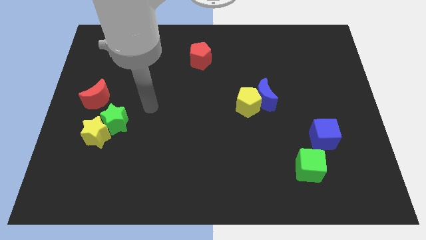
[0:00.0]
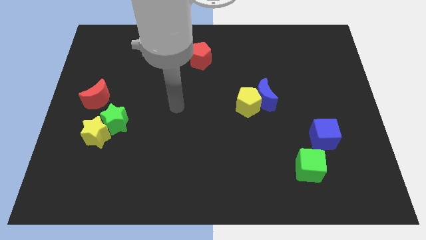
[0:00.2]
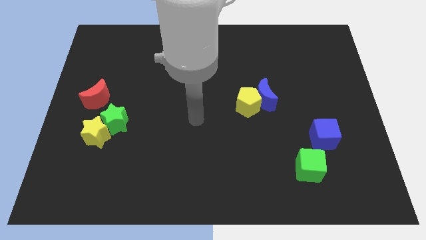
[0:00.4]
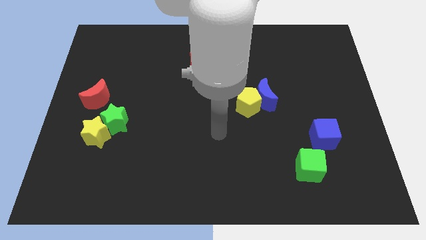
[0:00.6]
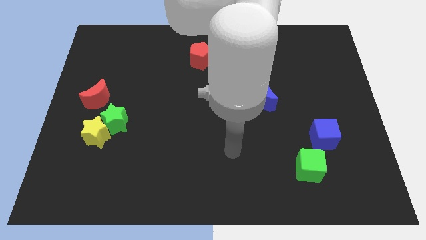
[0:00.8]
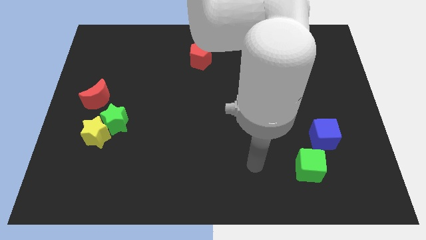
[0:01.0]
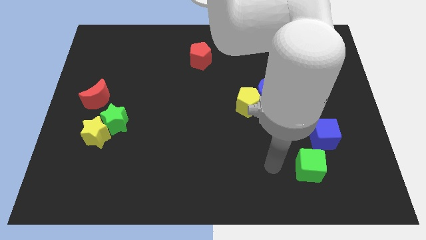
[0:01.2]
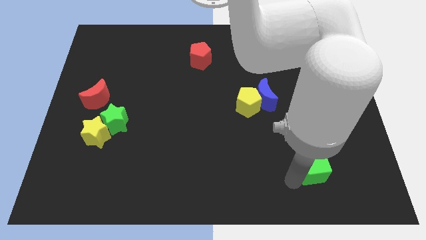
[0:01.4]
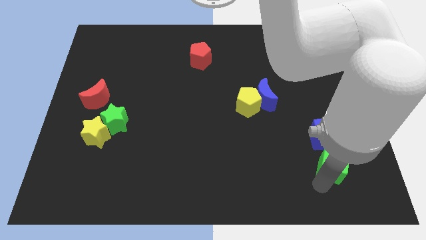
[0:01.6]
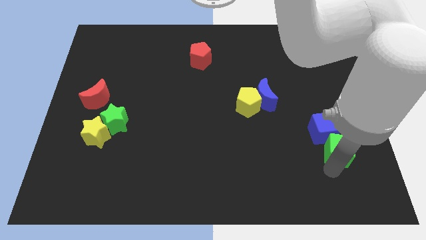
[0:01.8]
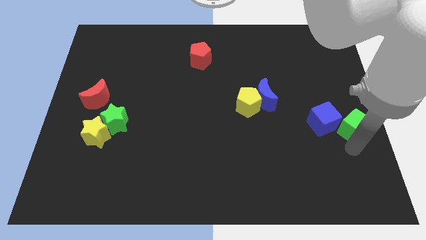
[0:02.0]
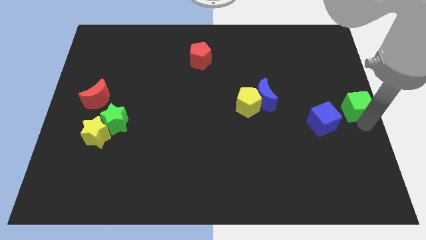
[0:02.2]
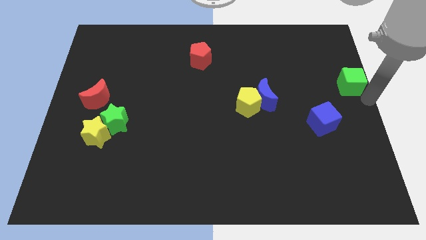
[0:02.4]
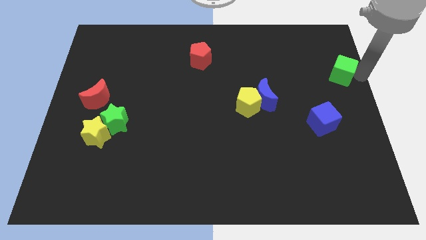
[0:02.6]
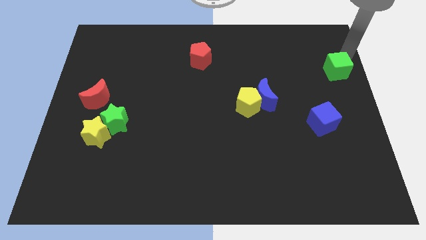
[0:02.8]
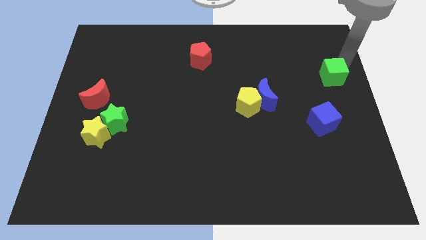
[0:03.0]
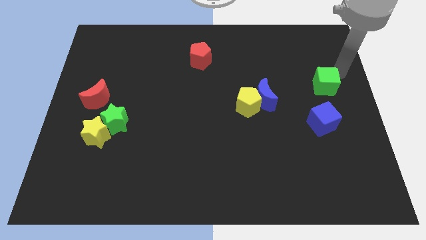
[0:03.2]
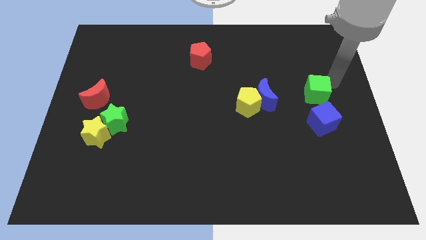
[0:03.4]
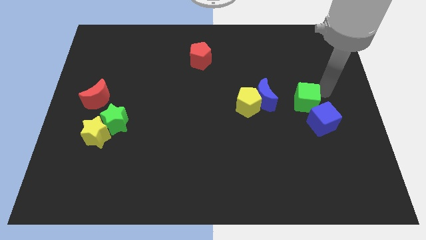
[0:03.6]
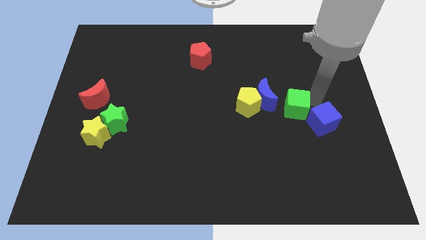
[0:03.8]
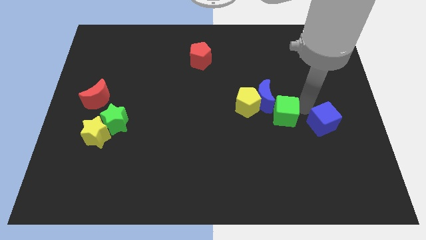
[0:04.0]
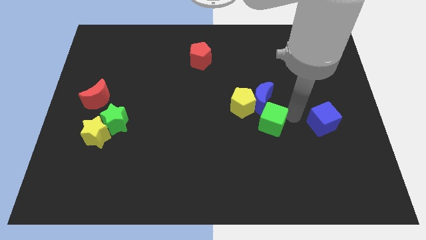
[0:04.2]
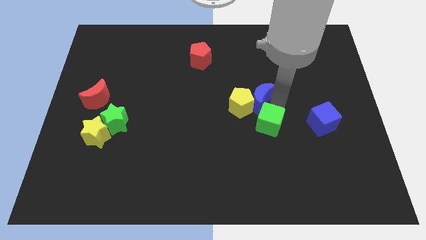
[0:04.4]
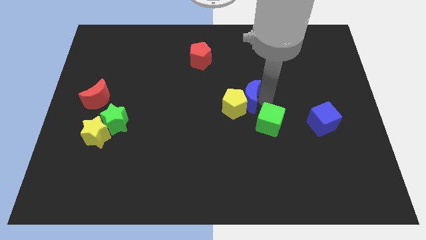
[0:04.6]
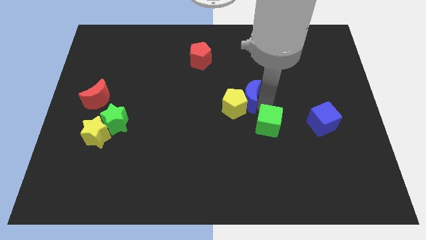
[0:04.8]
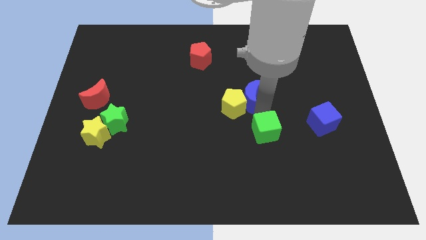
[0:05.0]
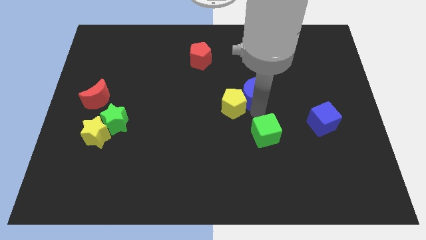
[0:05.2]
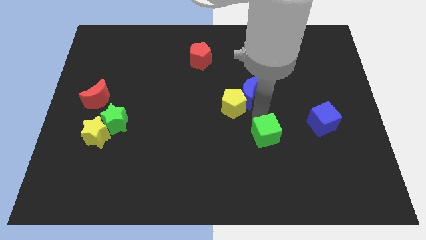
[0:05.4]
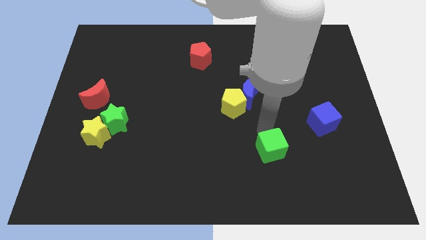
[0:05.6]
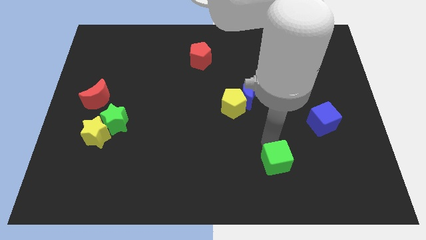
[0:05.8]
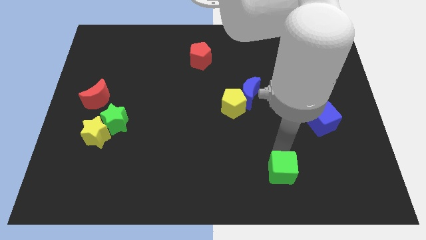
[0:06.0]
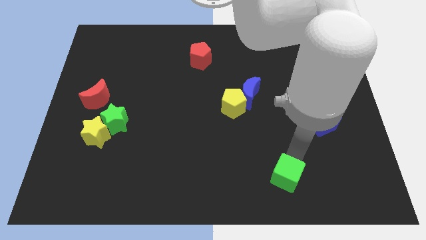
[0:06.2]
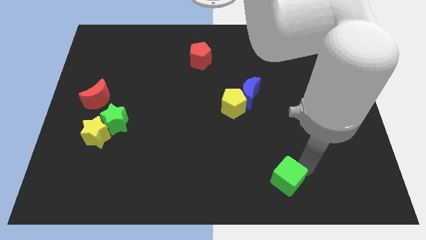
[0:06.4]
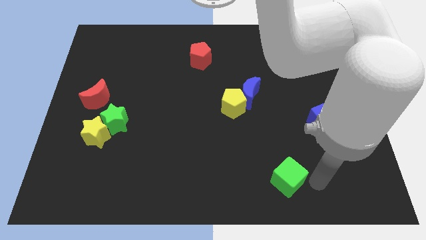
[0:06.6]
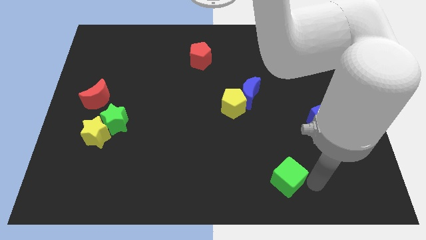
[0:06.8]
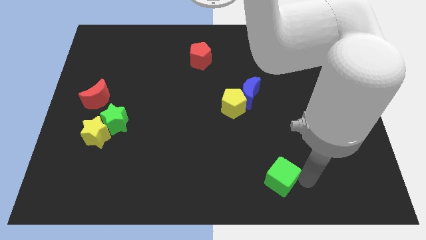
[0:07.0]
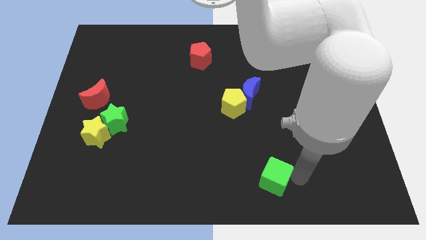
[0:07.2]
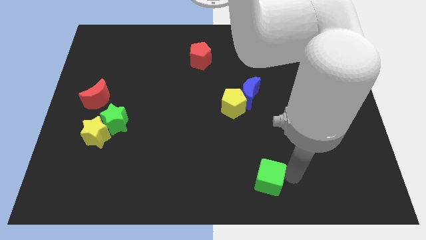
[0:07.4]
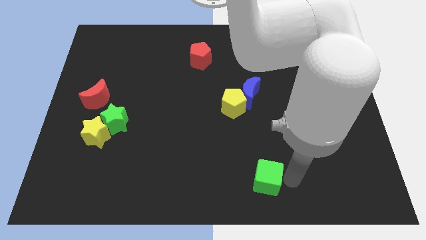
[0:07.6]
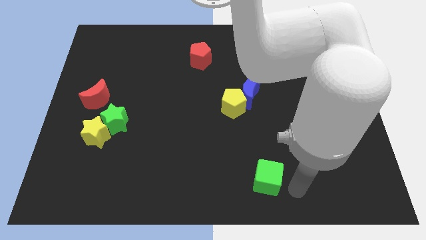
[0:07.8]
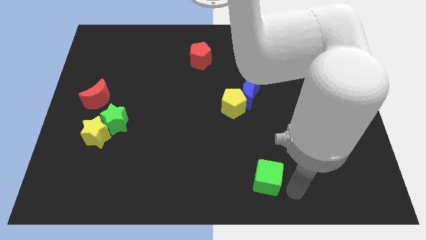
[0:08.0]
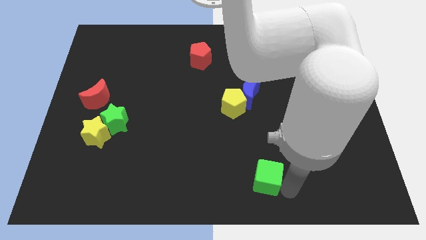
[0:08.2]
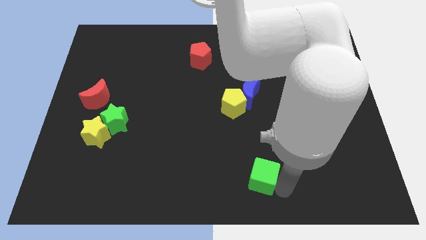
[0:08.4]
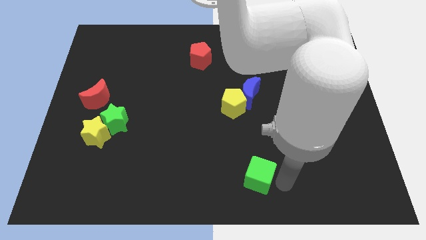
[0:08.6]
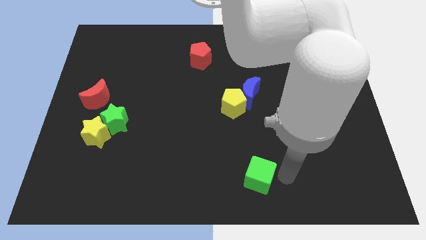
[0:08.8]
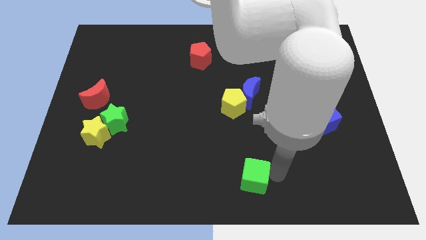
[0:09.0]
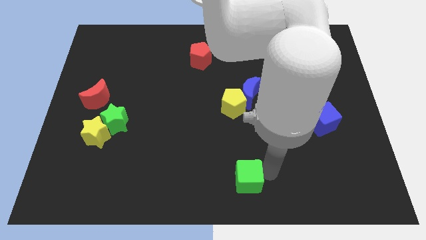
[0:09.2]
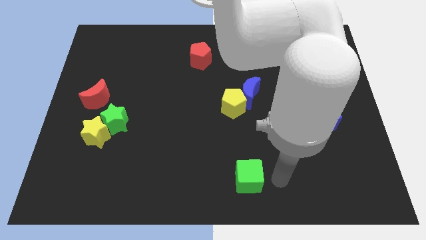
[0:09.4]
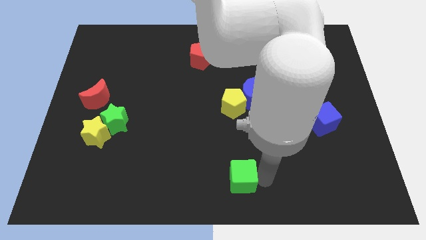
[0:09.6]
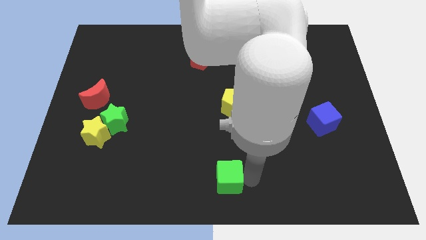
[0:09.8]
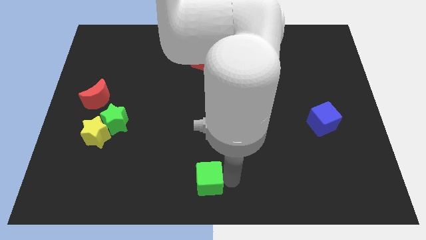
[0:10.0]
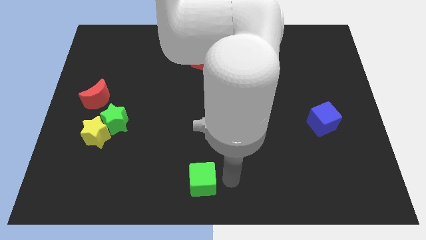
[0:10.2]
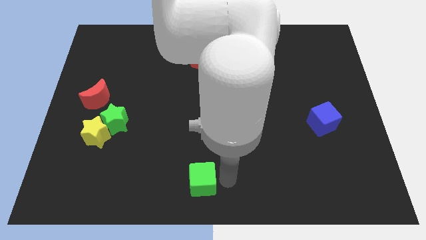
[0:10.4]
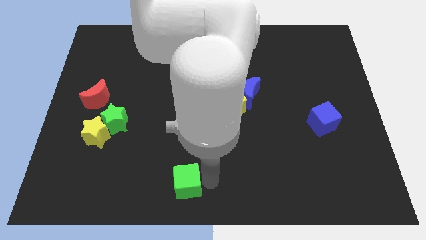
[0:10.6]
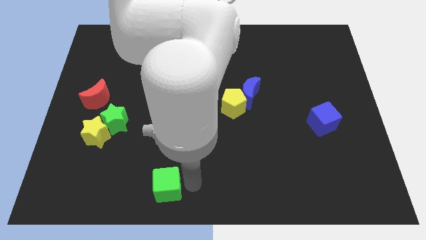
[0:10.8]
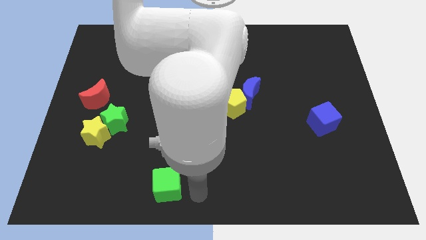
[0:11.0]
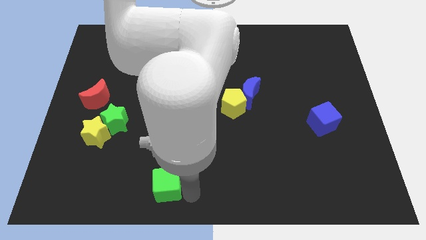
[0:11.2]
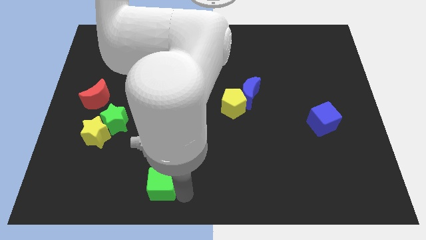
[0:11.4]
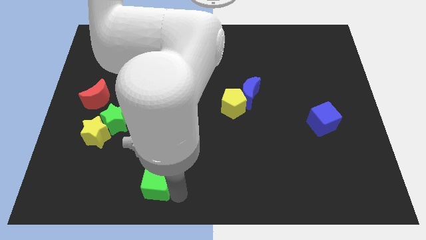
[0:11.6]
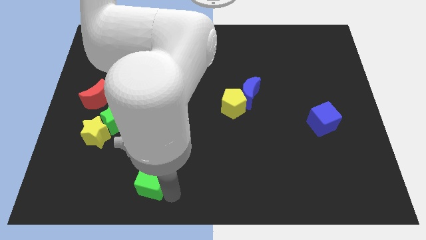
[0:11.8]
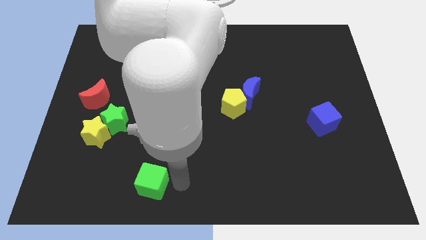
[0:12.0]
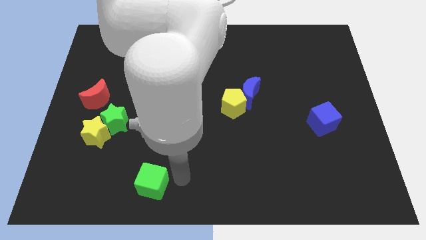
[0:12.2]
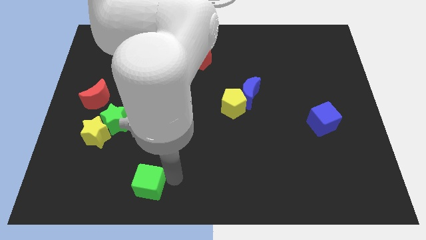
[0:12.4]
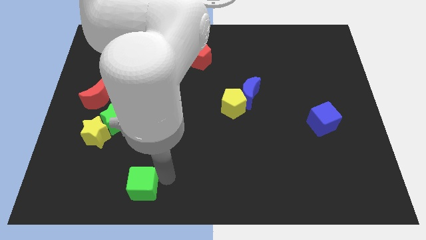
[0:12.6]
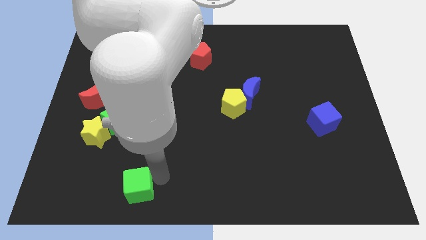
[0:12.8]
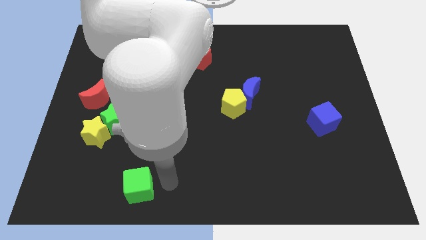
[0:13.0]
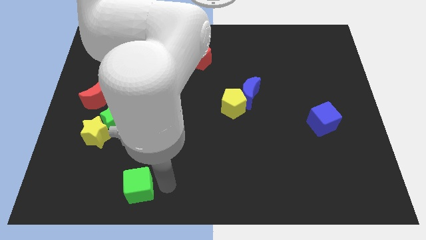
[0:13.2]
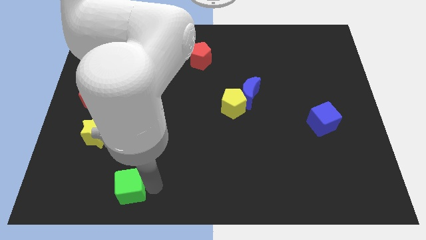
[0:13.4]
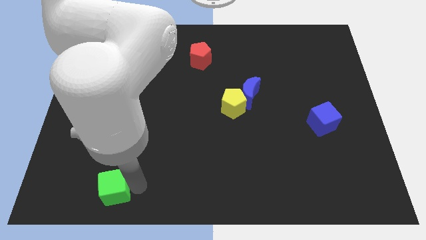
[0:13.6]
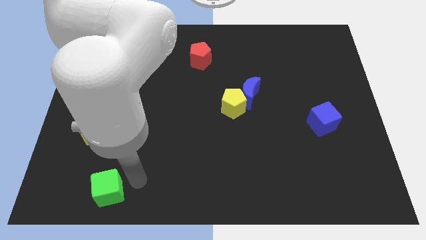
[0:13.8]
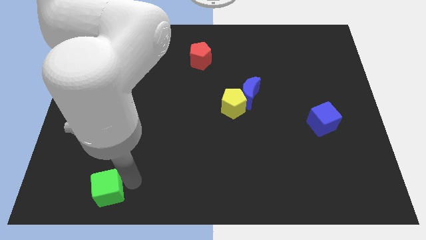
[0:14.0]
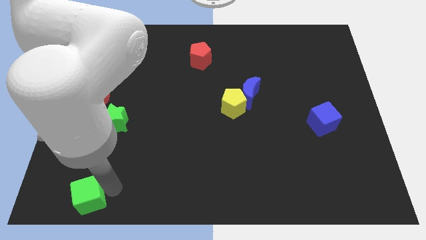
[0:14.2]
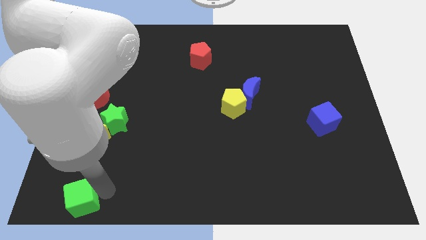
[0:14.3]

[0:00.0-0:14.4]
move the green cube to the bottom left of the board
